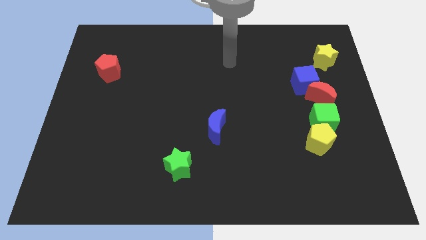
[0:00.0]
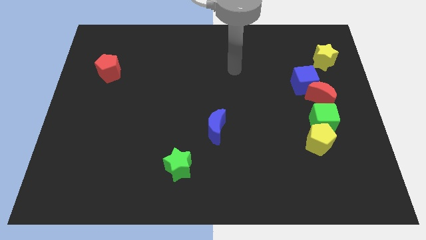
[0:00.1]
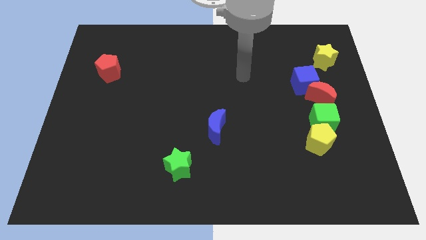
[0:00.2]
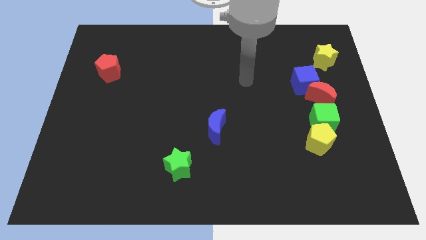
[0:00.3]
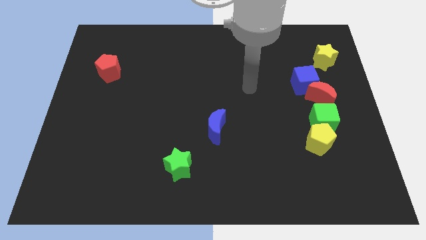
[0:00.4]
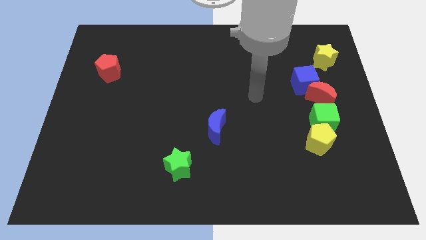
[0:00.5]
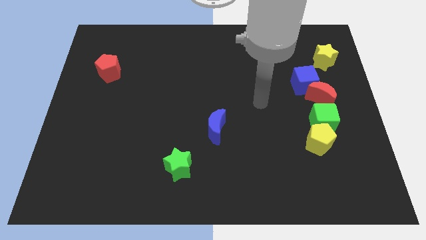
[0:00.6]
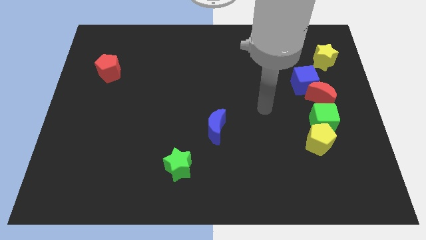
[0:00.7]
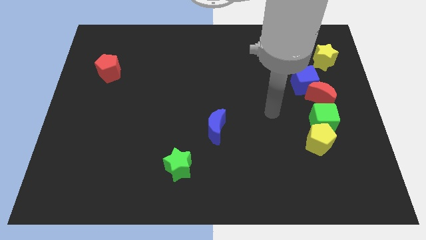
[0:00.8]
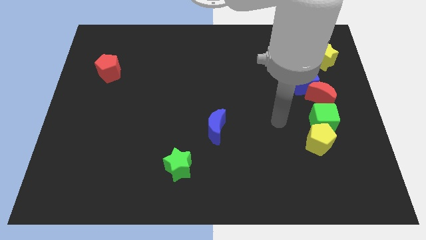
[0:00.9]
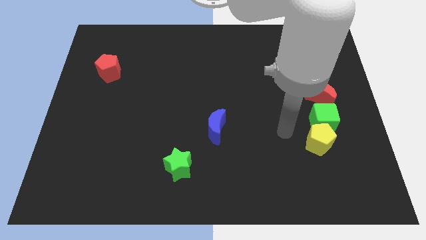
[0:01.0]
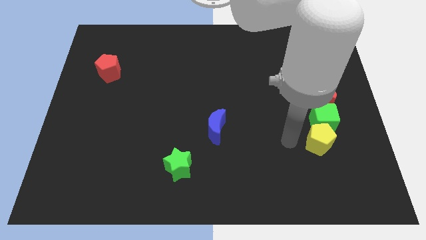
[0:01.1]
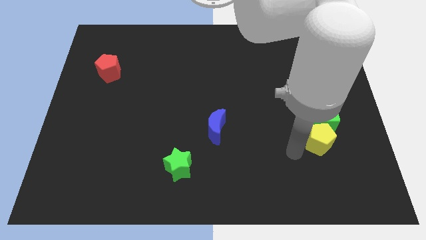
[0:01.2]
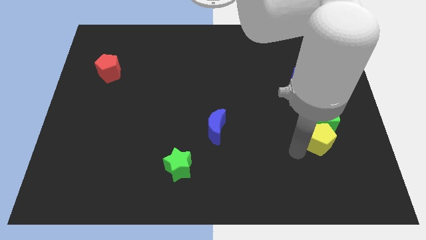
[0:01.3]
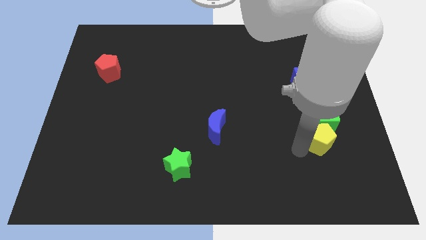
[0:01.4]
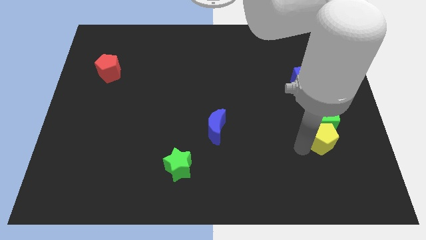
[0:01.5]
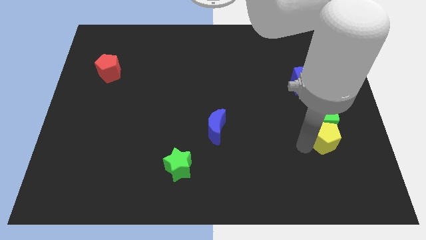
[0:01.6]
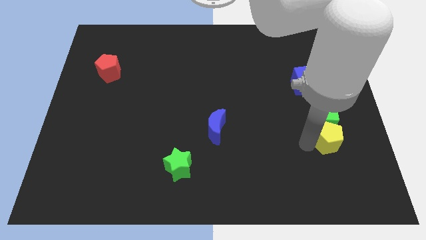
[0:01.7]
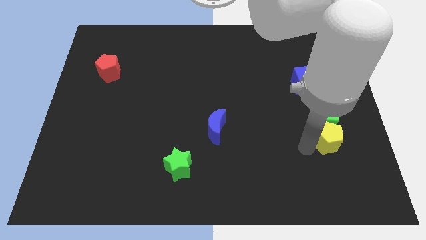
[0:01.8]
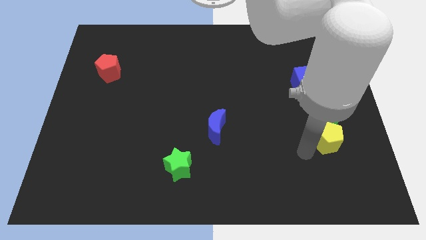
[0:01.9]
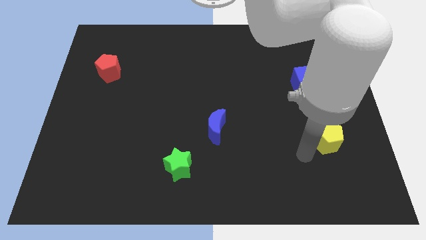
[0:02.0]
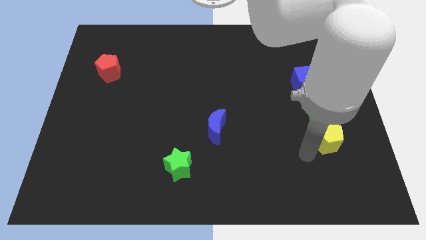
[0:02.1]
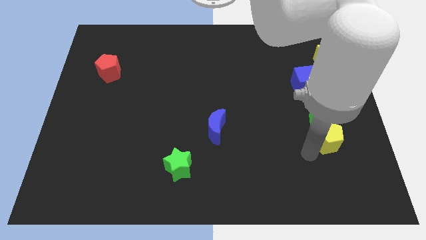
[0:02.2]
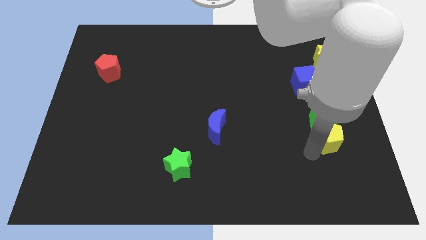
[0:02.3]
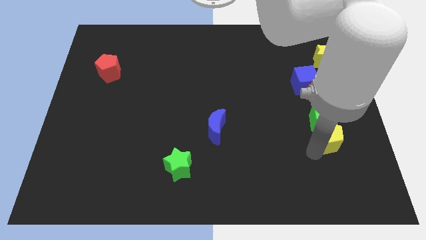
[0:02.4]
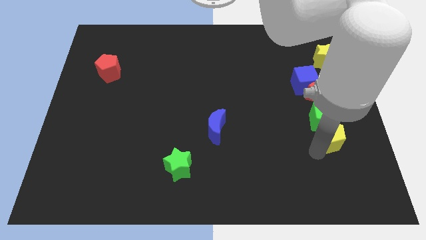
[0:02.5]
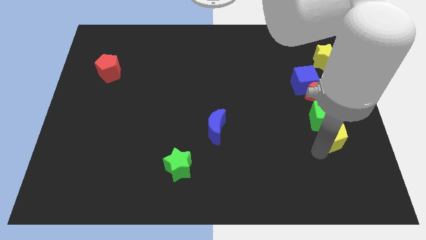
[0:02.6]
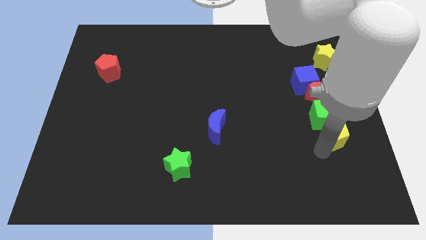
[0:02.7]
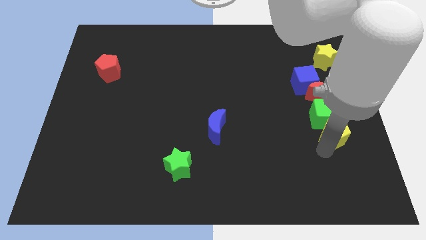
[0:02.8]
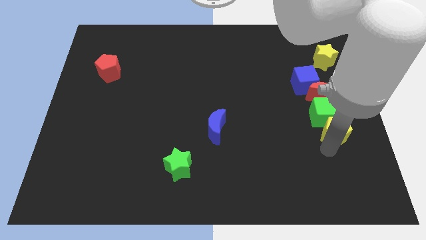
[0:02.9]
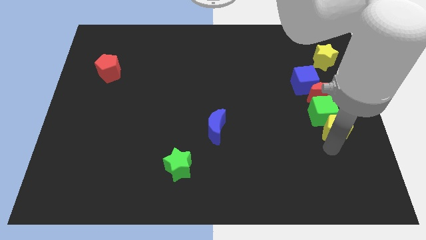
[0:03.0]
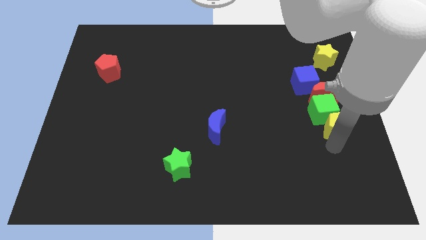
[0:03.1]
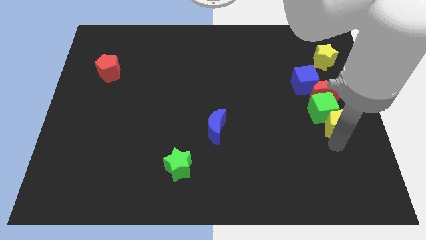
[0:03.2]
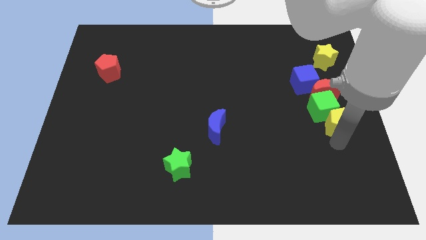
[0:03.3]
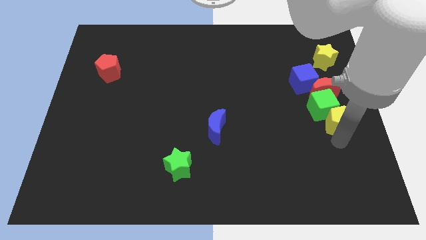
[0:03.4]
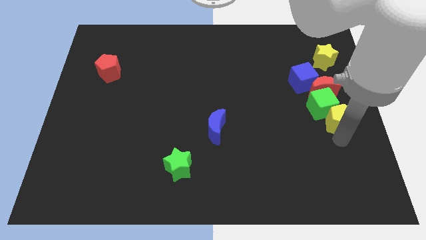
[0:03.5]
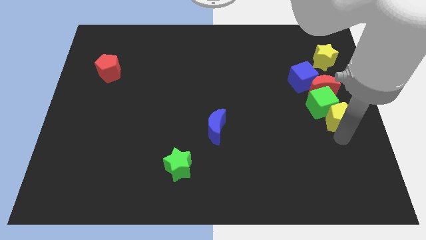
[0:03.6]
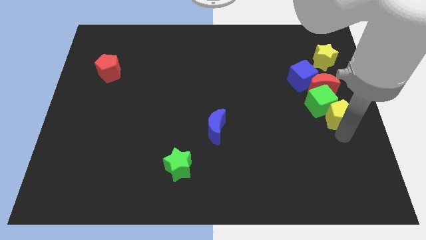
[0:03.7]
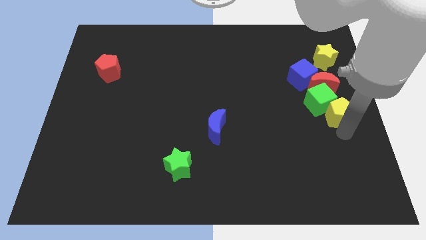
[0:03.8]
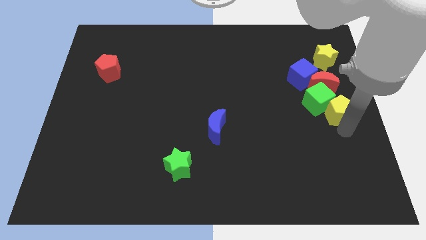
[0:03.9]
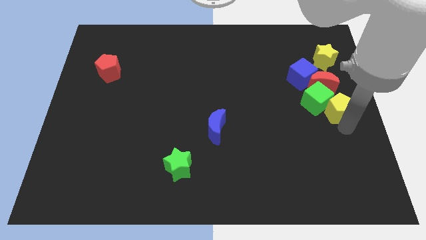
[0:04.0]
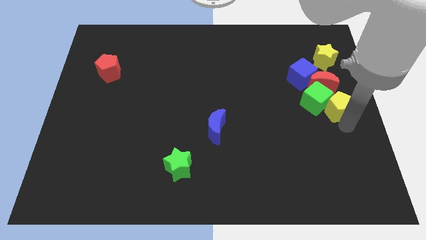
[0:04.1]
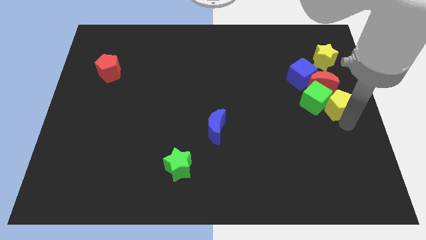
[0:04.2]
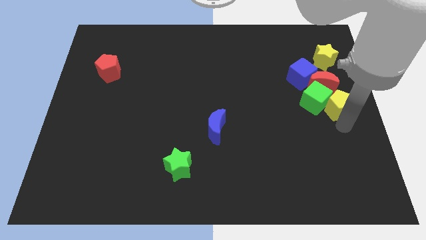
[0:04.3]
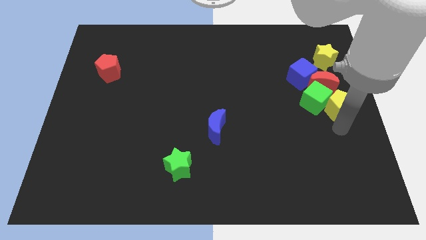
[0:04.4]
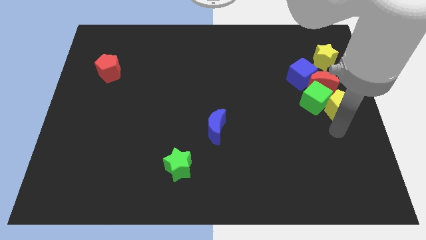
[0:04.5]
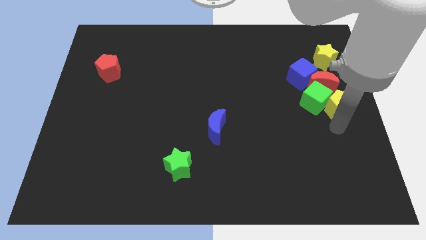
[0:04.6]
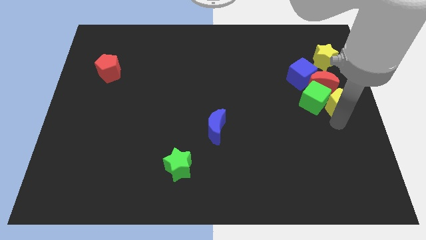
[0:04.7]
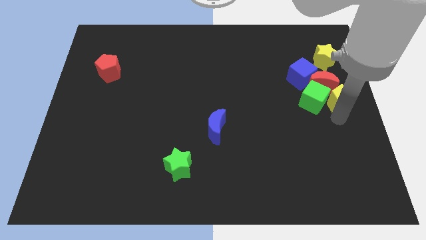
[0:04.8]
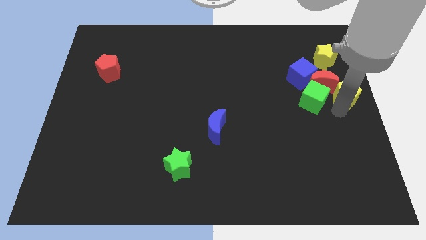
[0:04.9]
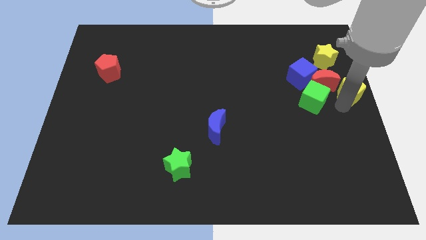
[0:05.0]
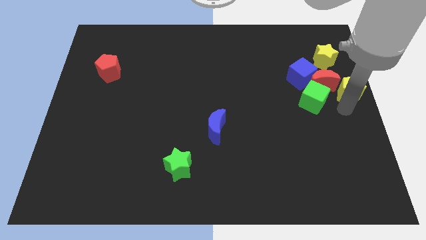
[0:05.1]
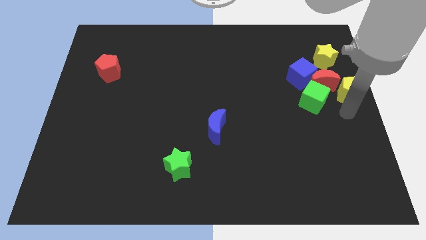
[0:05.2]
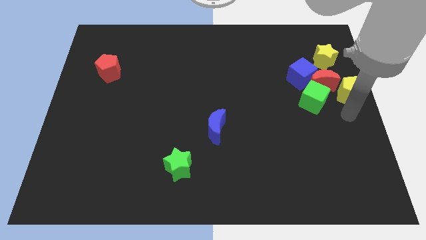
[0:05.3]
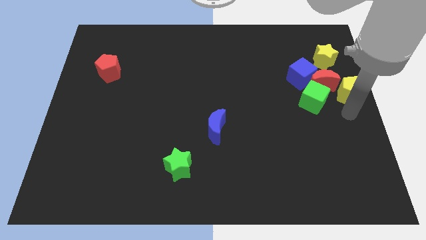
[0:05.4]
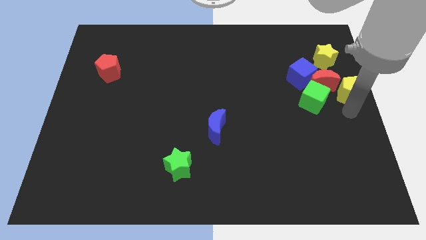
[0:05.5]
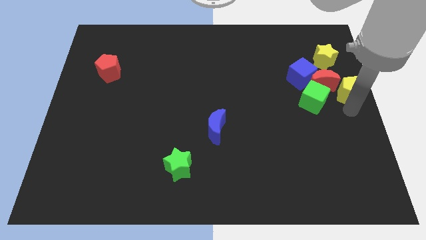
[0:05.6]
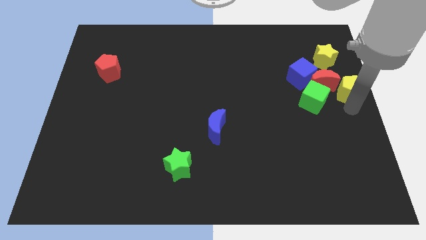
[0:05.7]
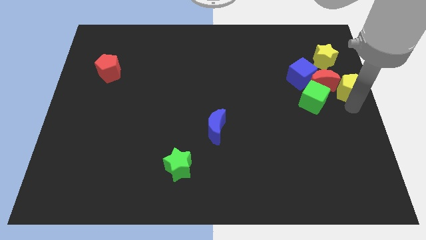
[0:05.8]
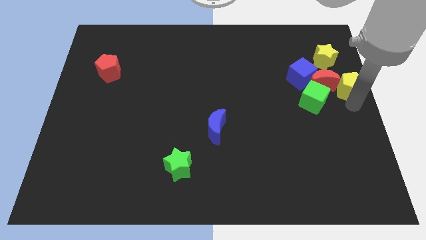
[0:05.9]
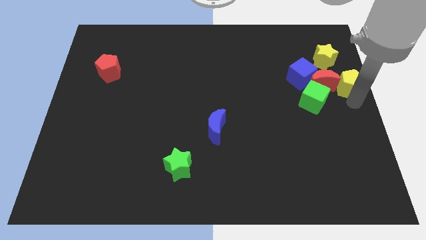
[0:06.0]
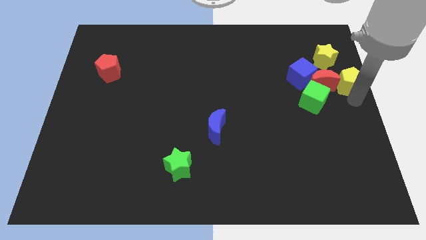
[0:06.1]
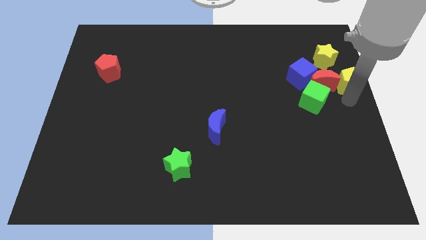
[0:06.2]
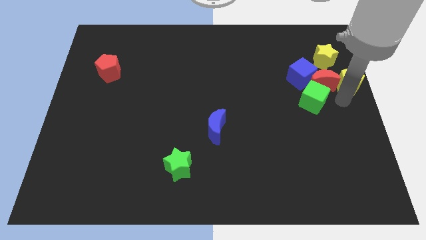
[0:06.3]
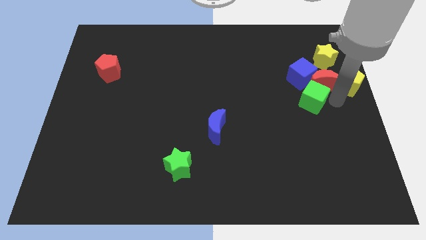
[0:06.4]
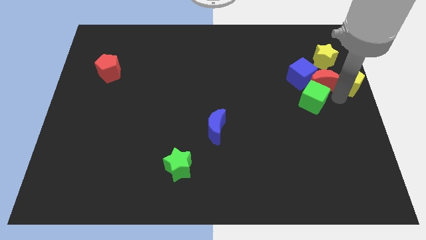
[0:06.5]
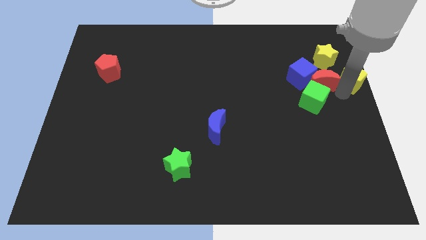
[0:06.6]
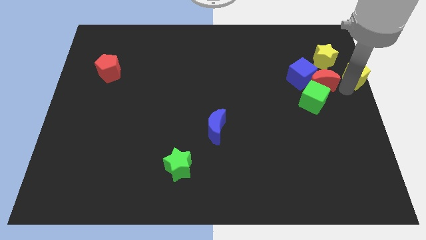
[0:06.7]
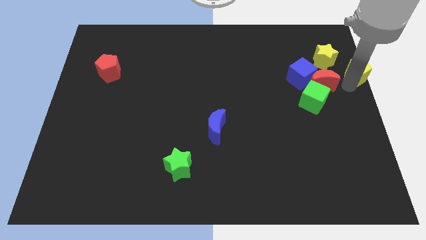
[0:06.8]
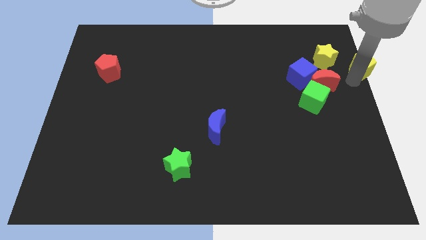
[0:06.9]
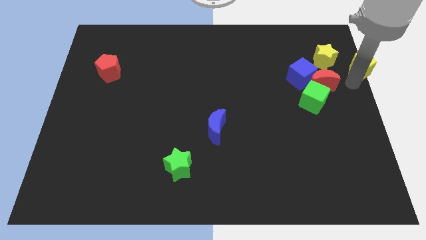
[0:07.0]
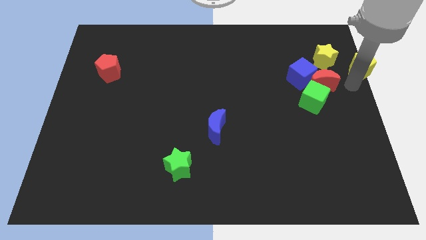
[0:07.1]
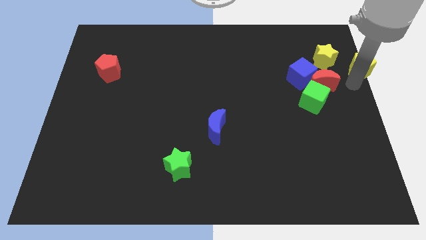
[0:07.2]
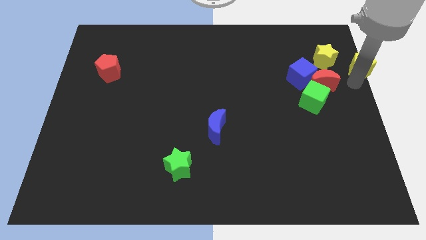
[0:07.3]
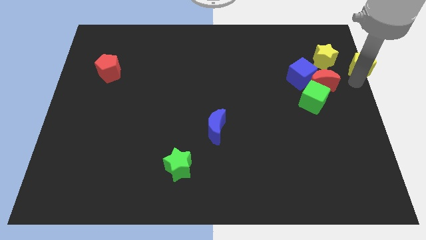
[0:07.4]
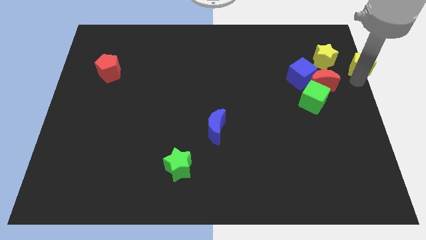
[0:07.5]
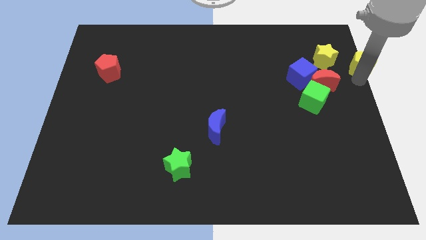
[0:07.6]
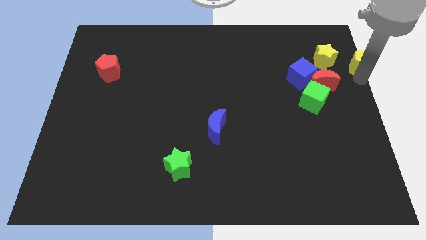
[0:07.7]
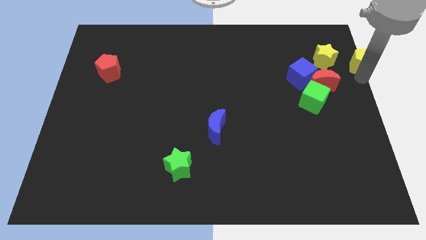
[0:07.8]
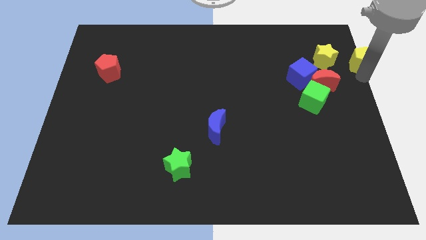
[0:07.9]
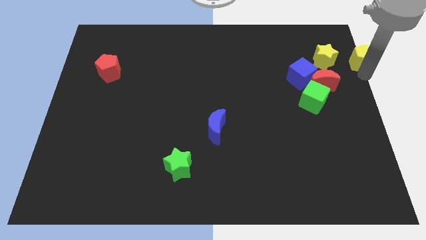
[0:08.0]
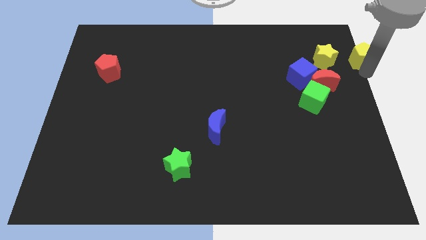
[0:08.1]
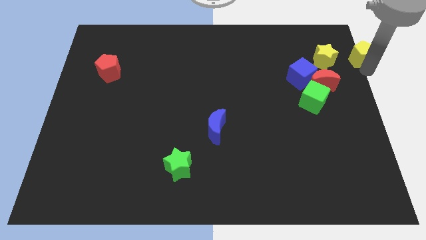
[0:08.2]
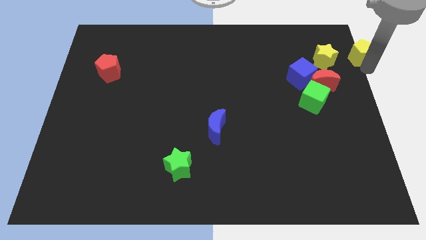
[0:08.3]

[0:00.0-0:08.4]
push the yellow pentagon to the top right of the board
